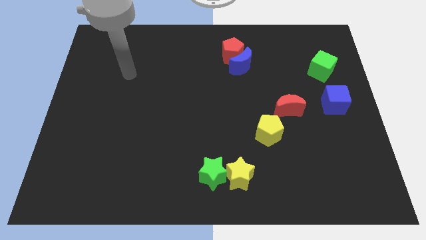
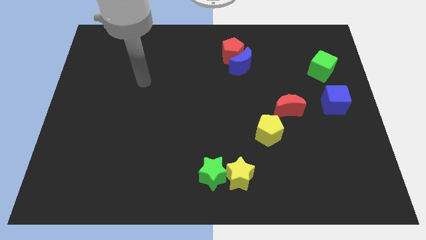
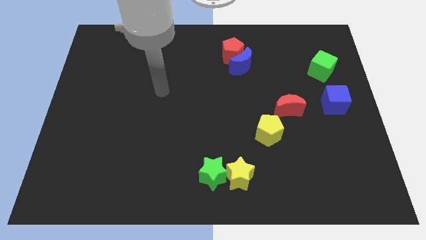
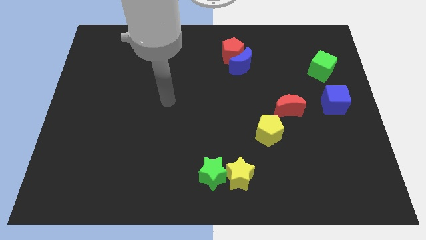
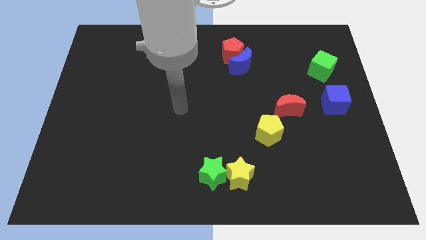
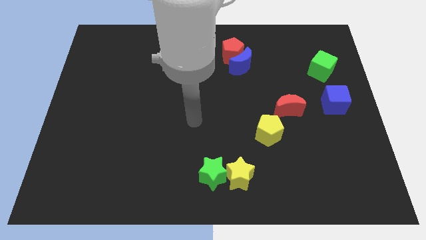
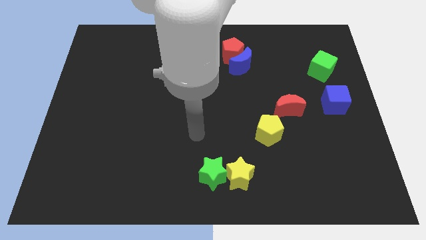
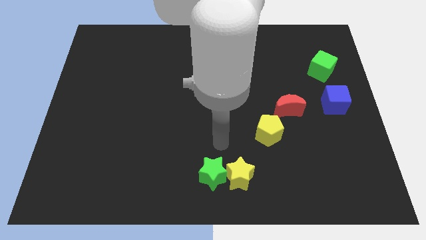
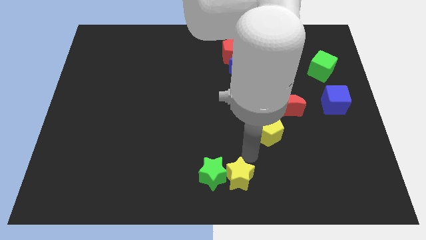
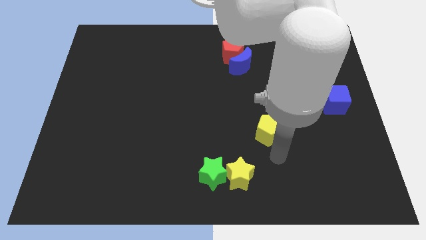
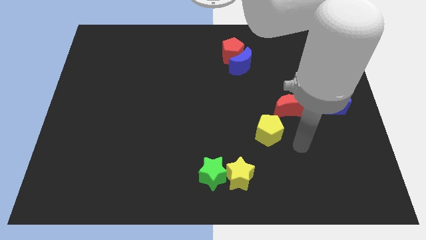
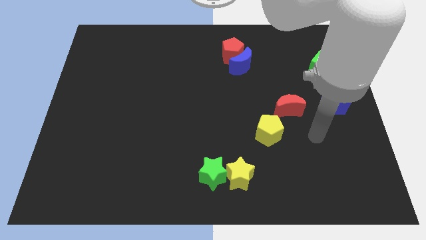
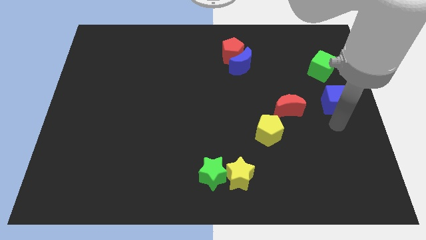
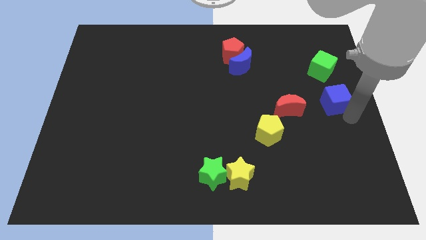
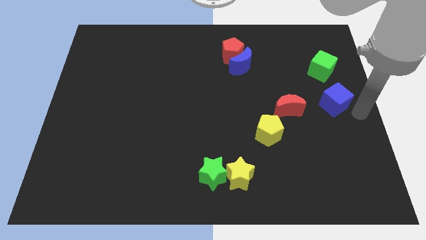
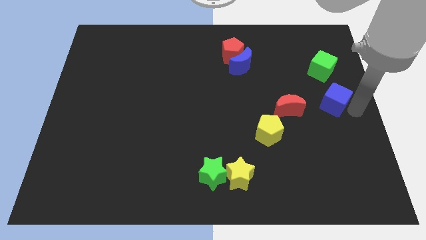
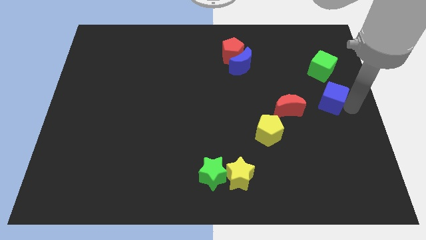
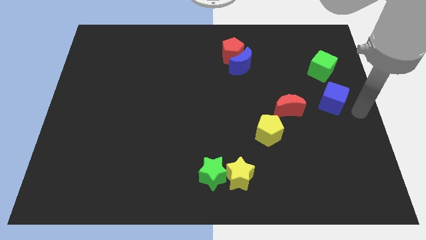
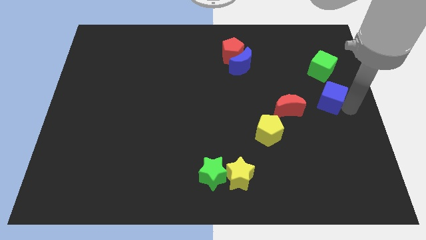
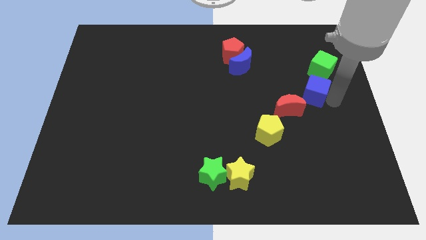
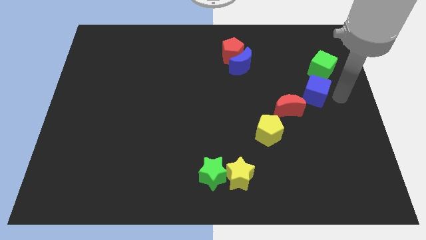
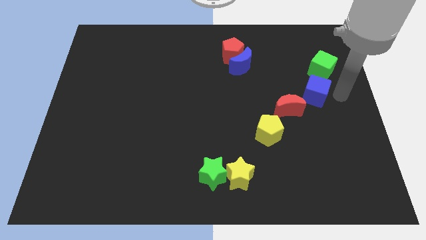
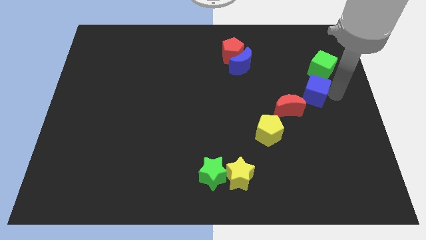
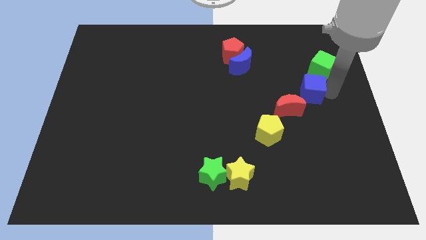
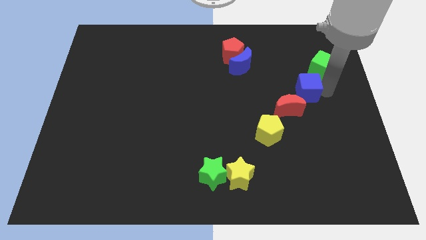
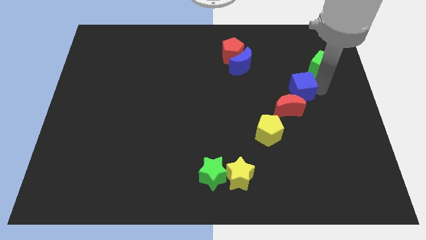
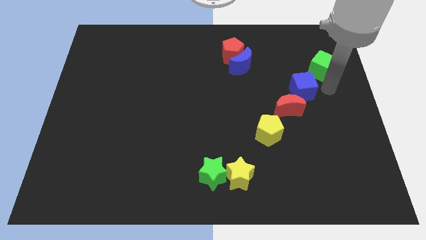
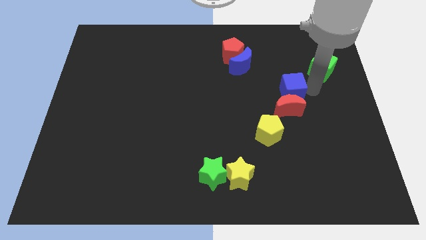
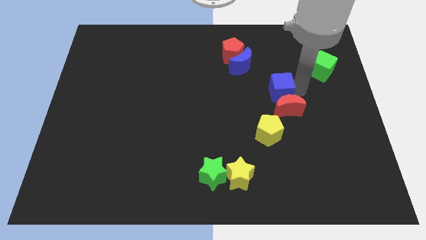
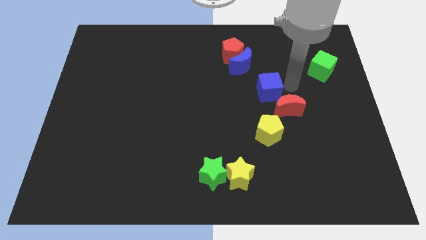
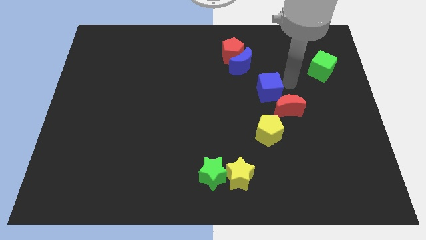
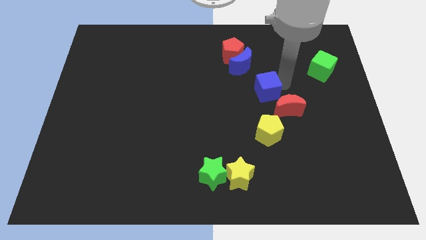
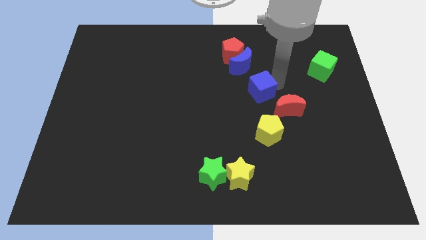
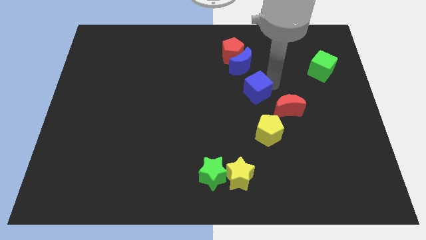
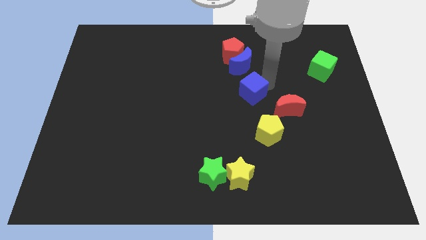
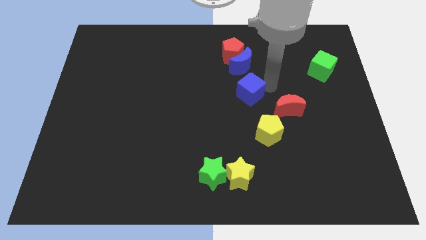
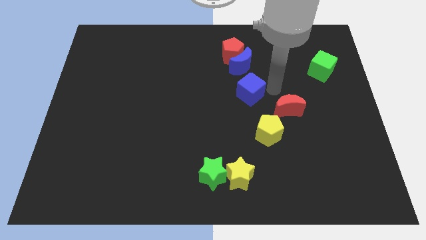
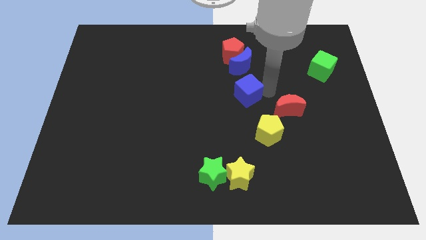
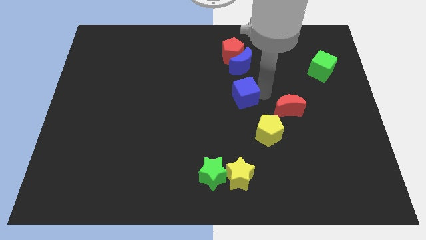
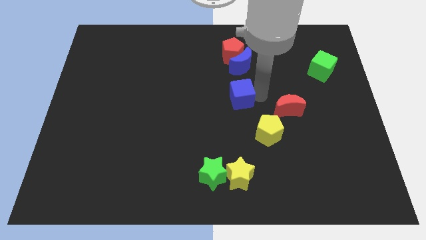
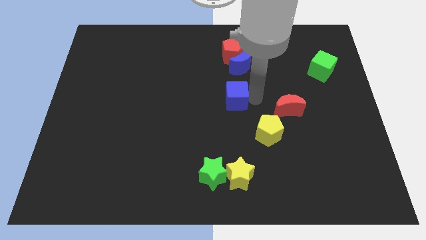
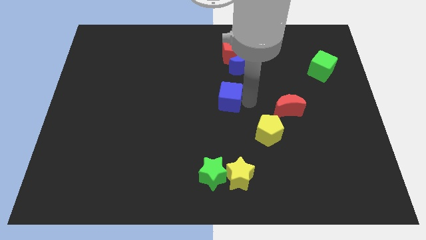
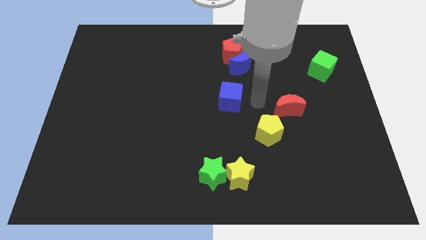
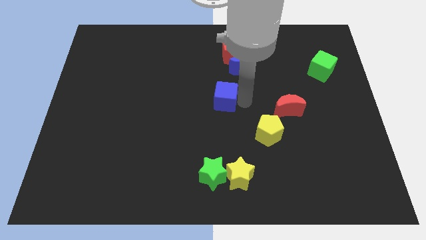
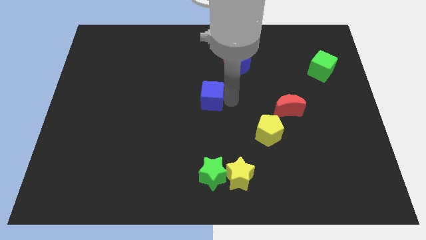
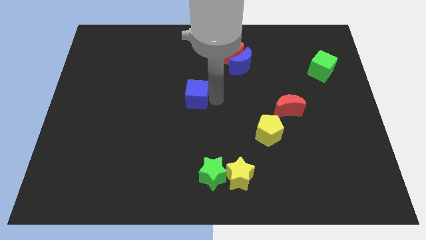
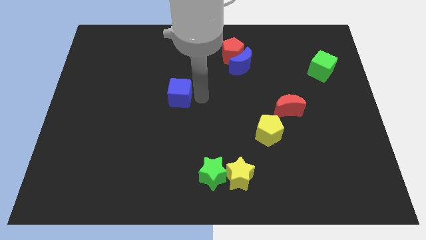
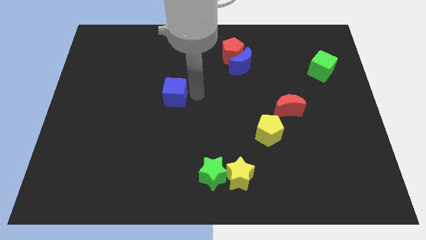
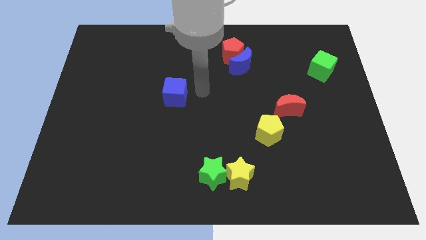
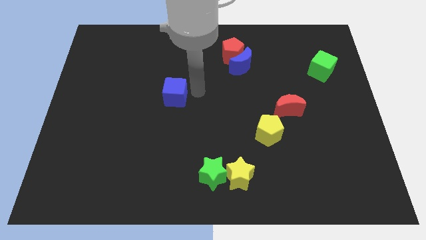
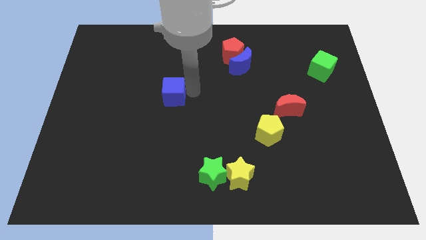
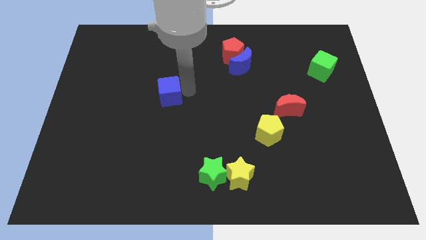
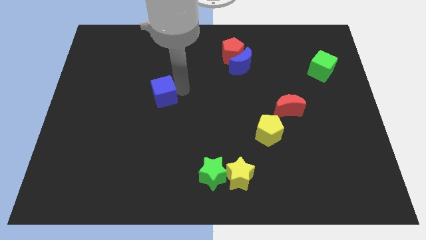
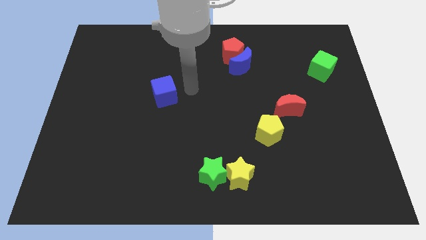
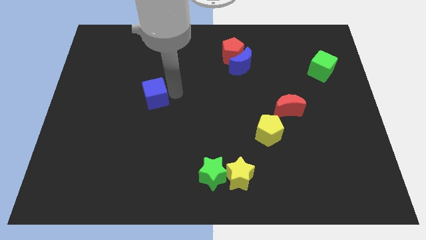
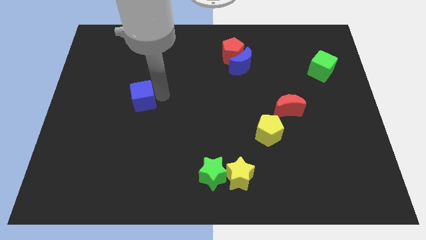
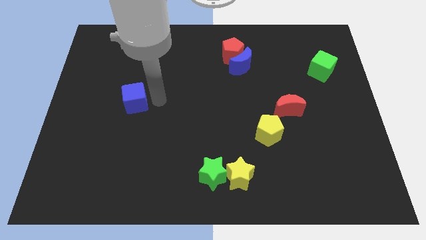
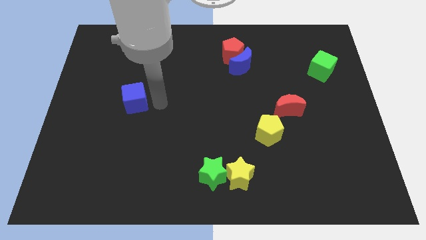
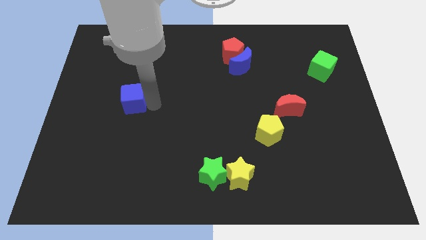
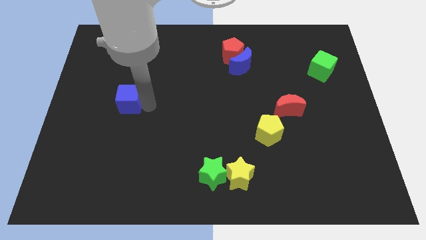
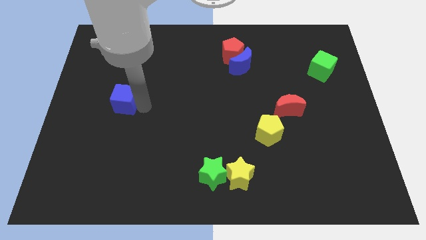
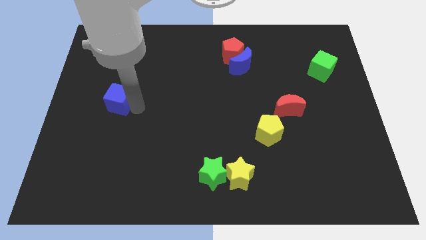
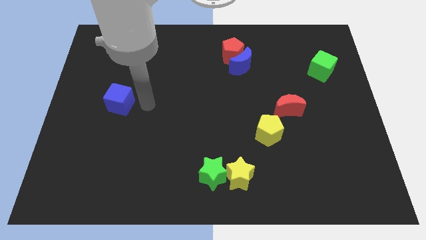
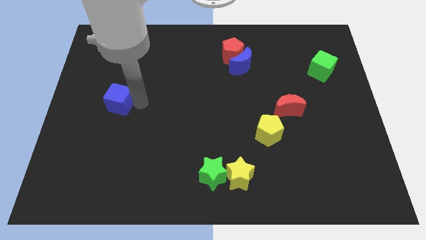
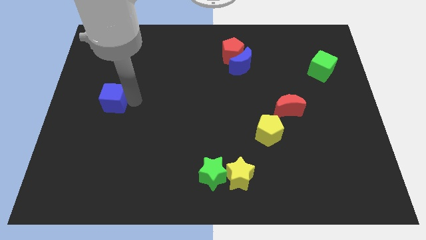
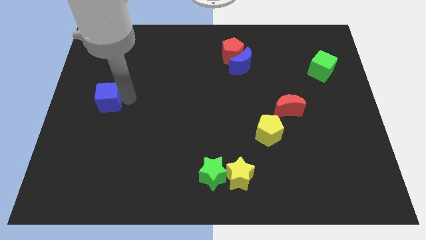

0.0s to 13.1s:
put the blue cube to the left side
